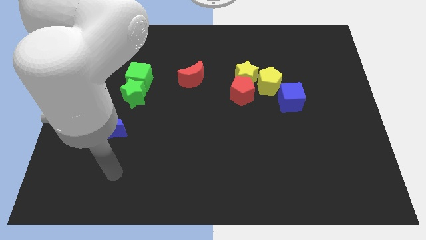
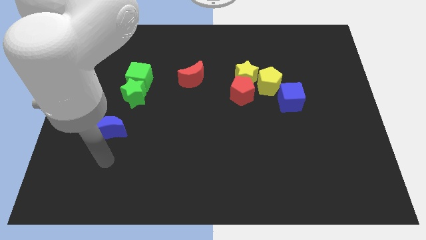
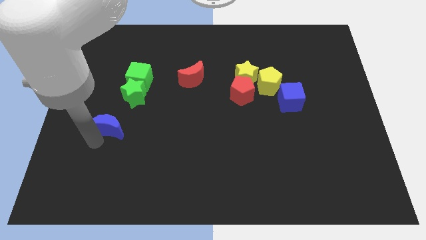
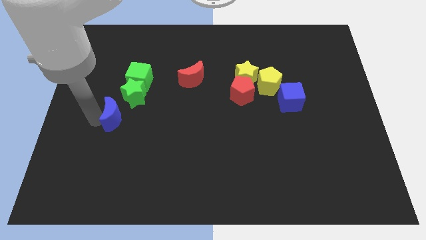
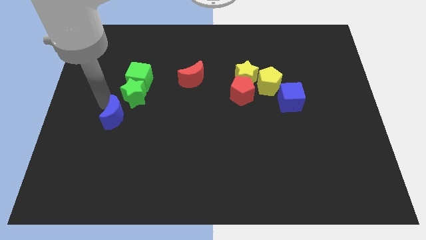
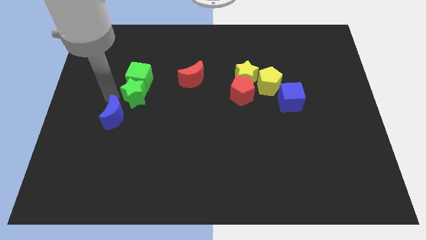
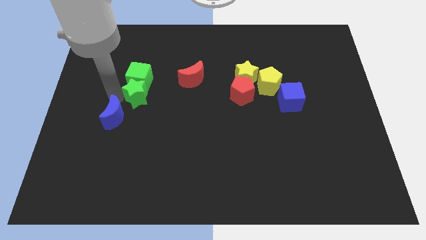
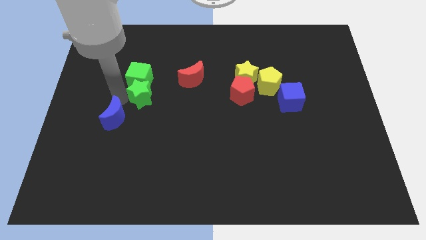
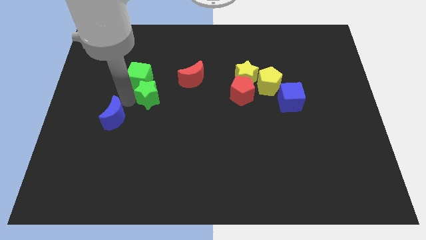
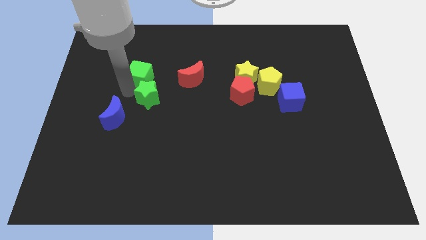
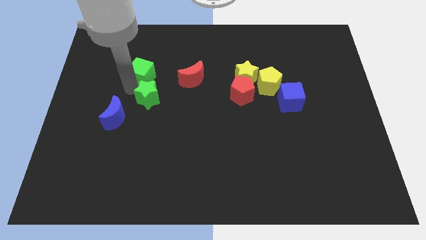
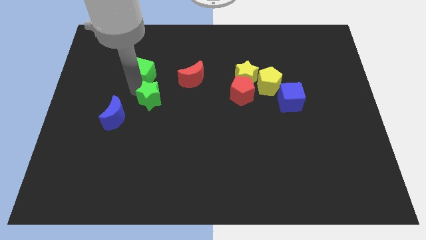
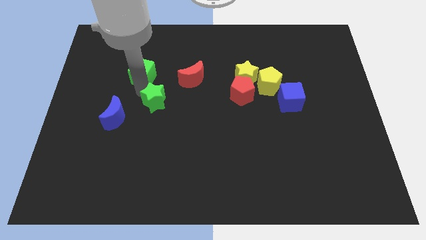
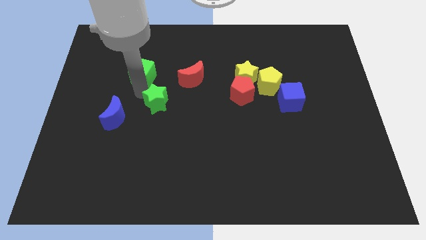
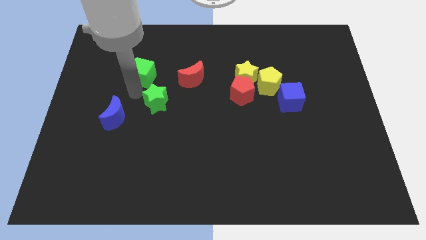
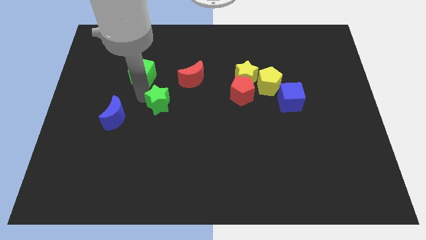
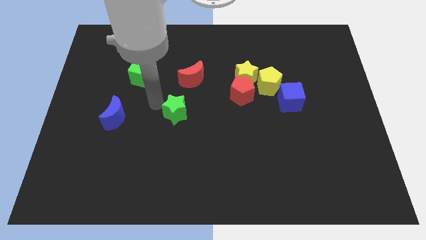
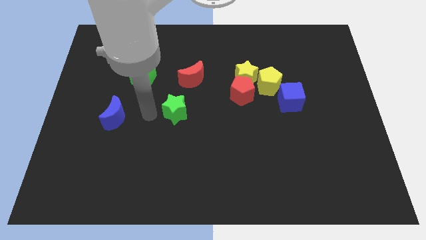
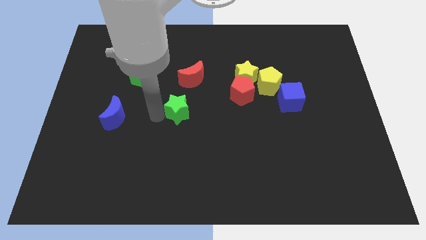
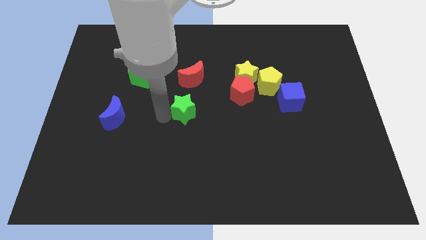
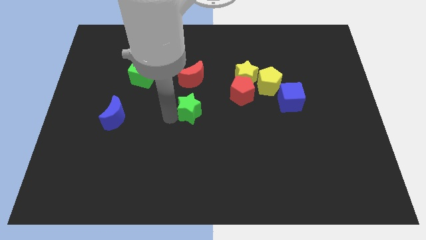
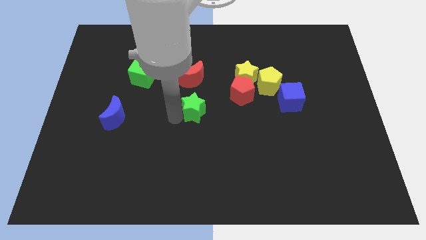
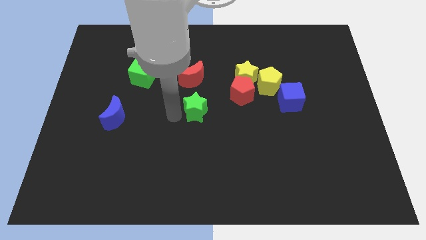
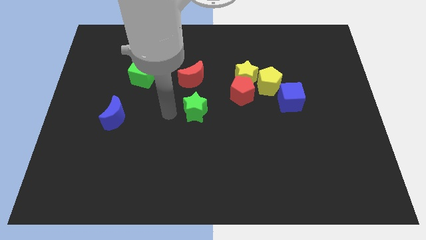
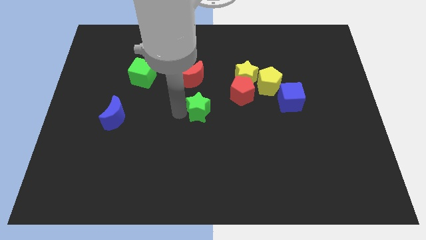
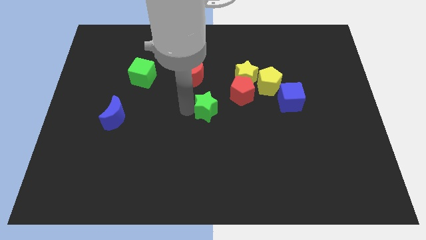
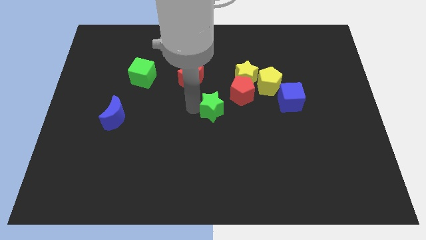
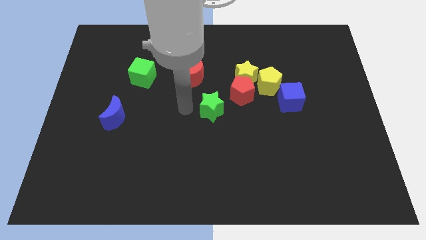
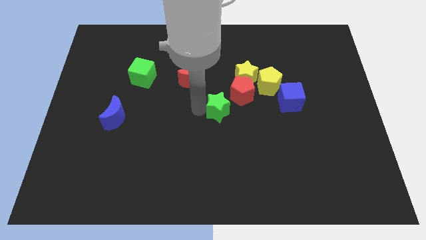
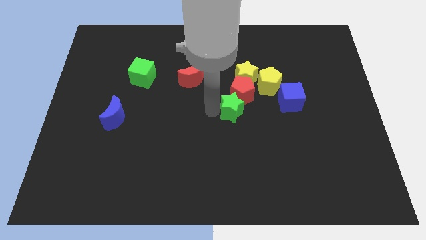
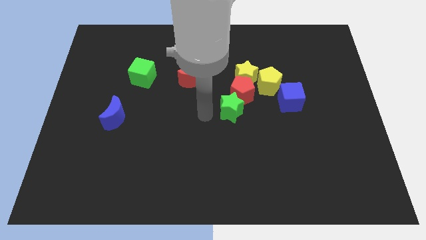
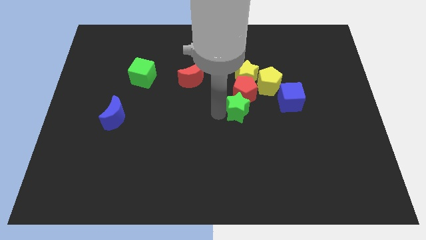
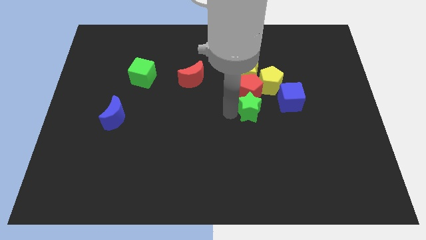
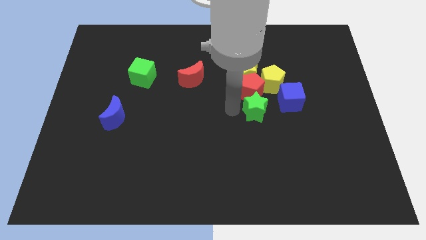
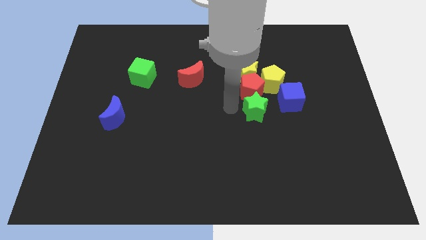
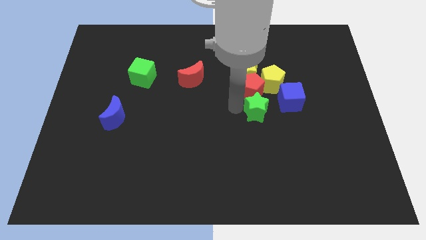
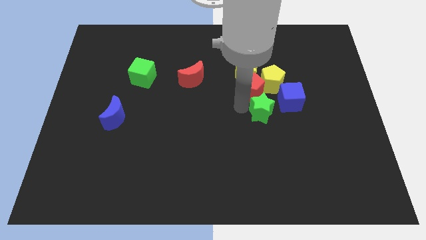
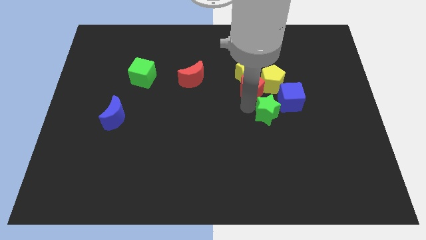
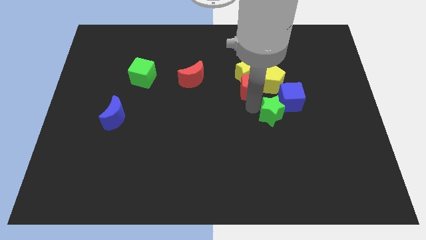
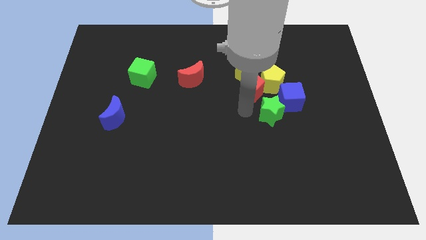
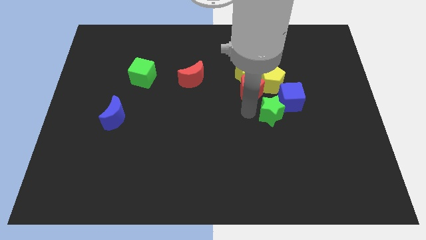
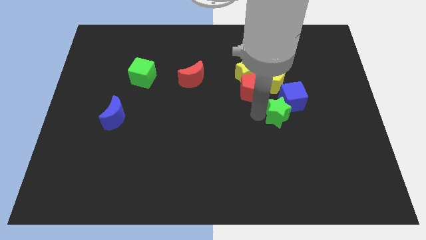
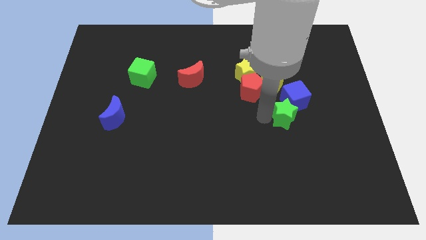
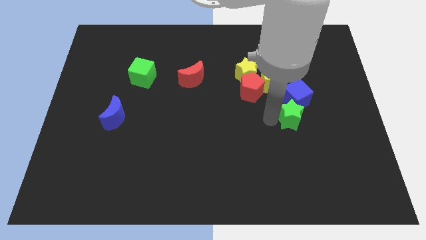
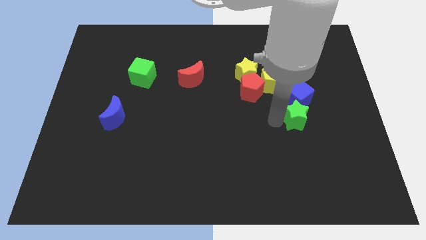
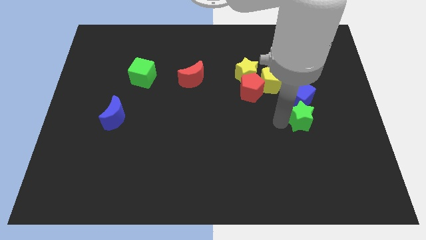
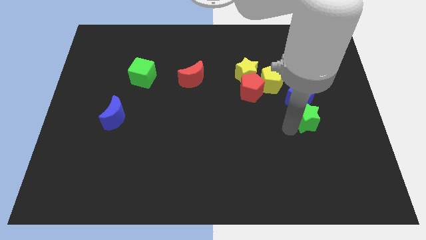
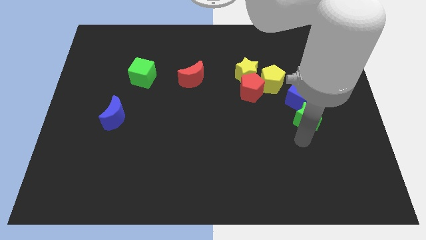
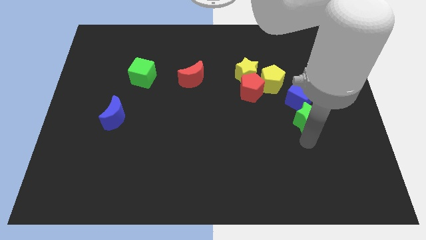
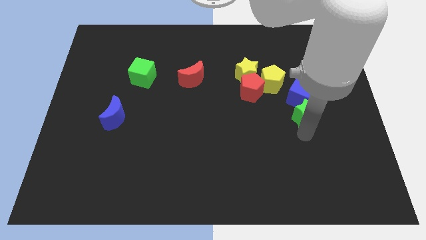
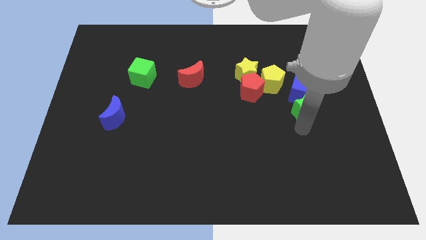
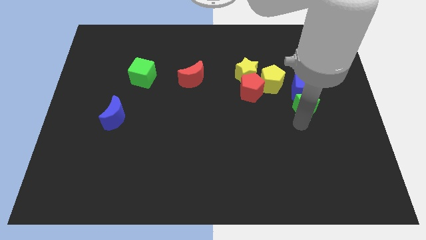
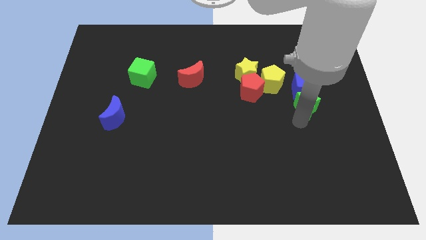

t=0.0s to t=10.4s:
push the green star to the right of the red pentagon

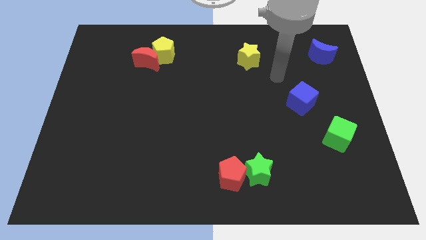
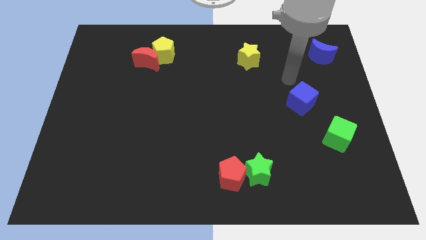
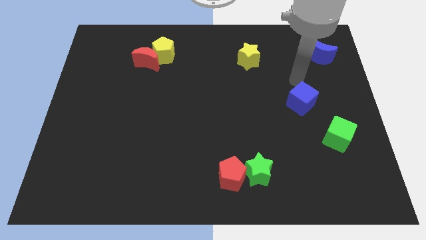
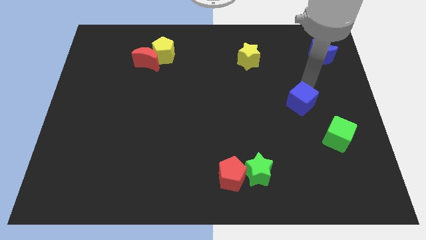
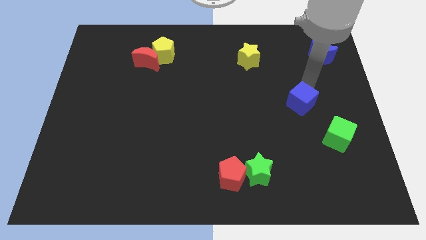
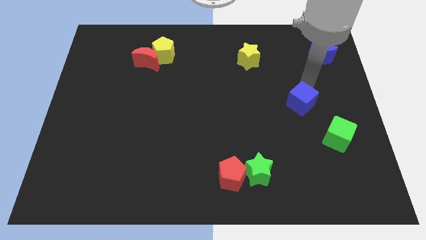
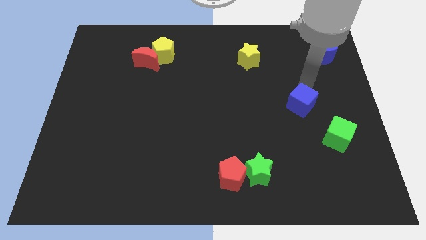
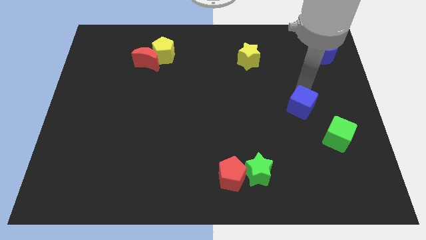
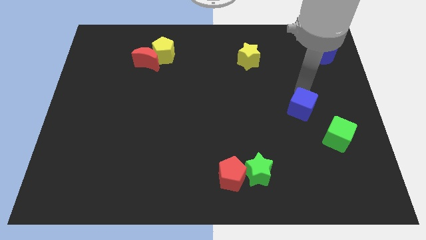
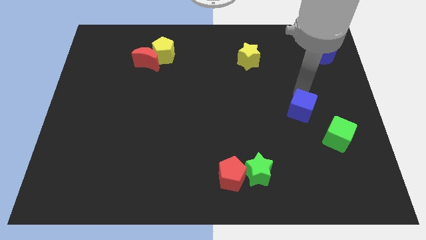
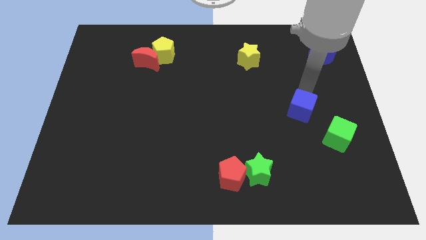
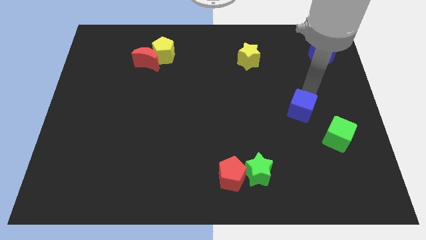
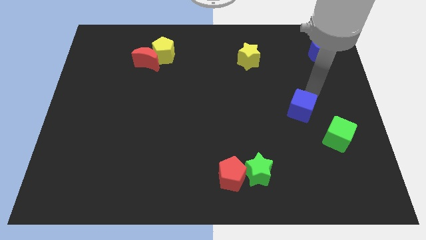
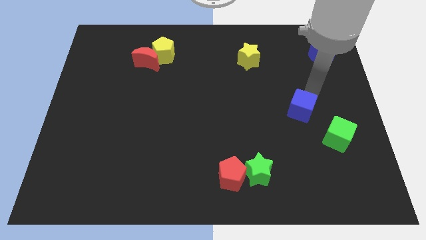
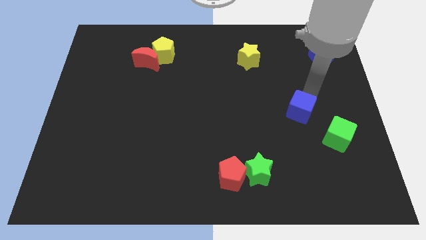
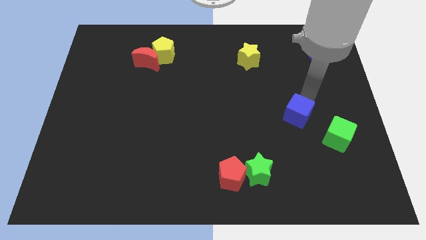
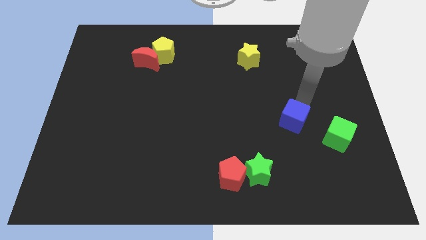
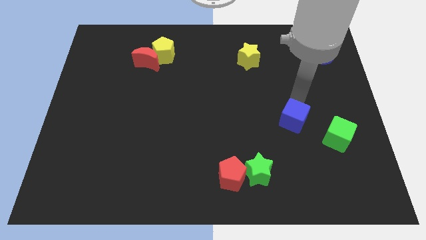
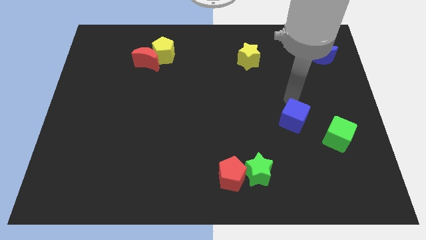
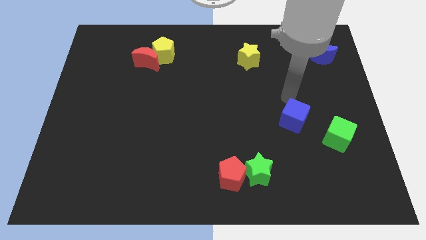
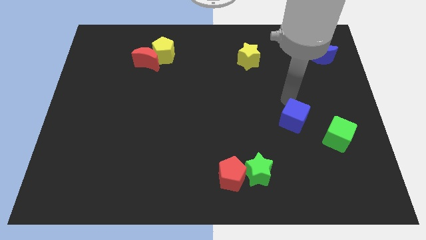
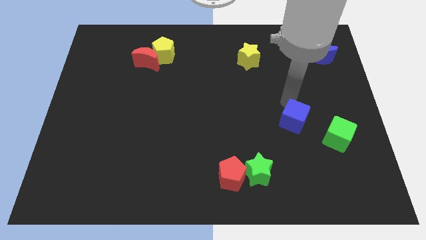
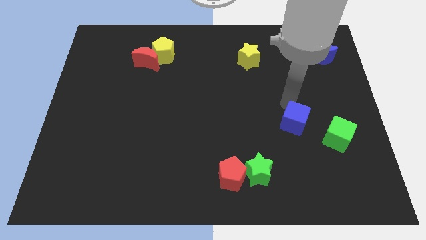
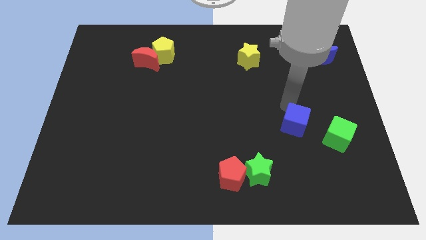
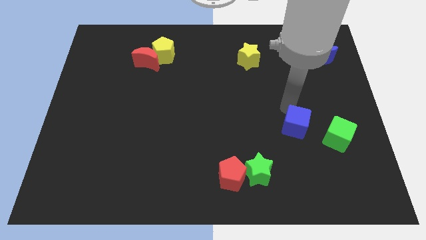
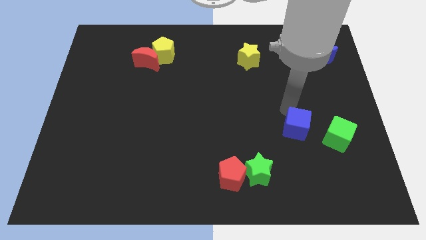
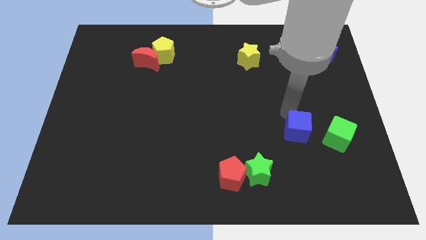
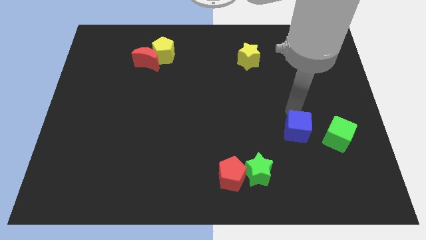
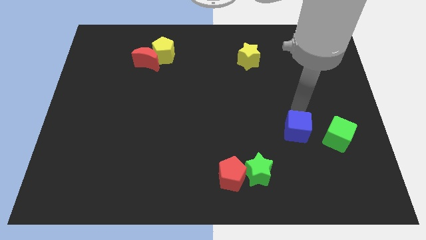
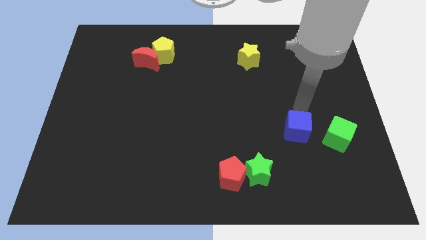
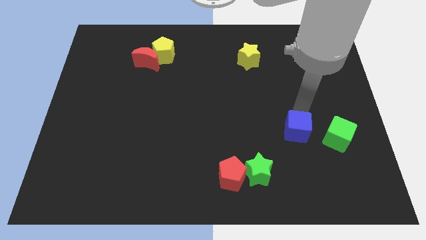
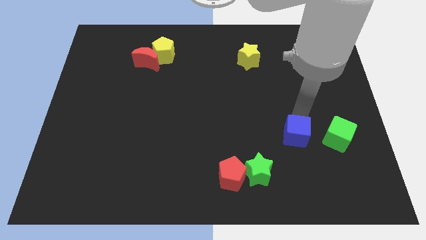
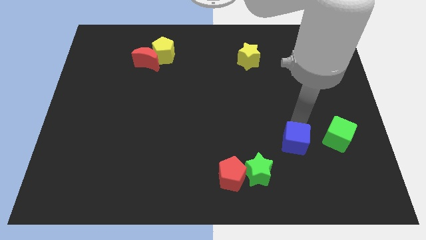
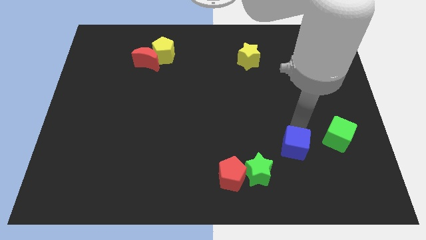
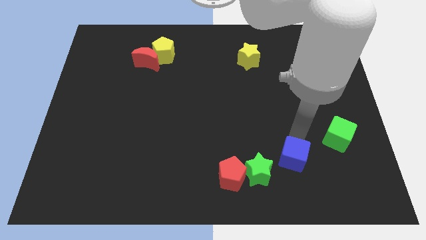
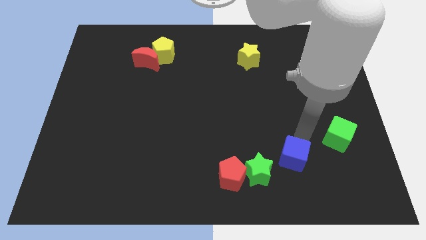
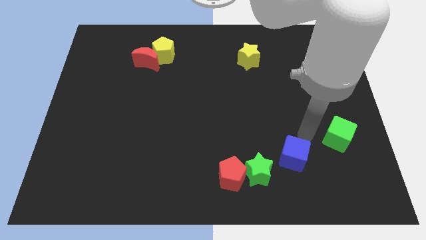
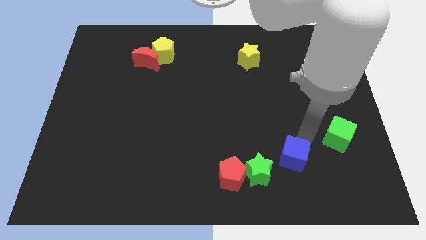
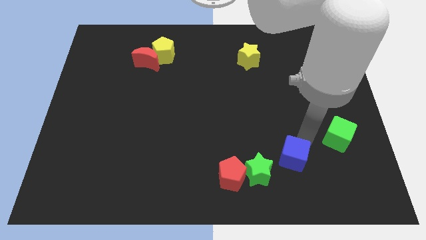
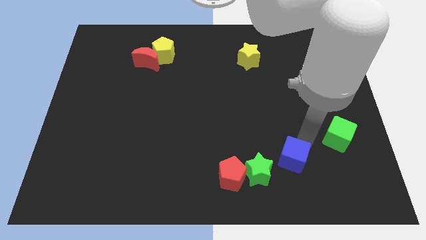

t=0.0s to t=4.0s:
slide the blue cube to the right of the red pentagon
